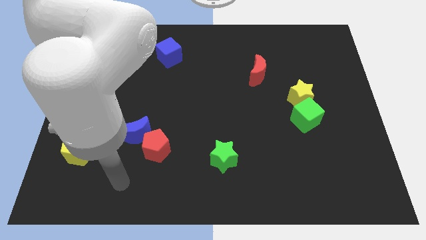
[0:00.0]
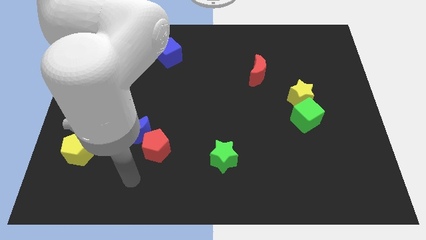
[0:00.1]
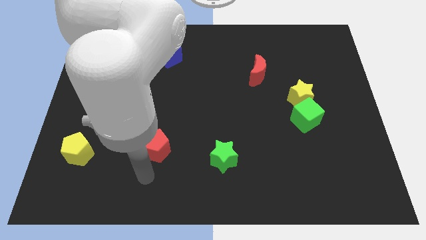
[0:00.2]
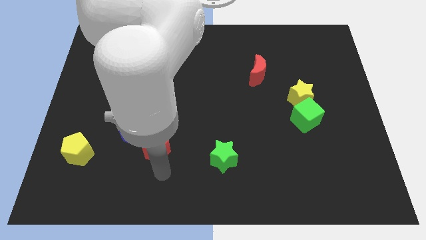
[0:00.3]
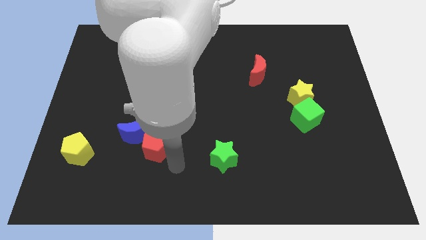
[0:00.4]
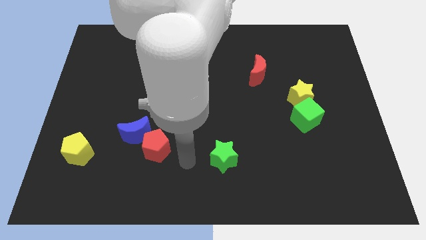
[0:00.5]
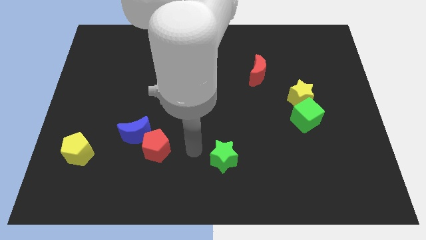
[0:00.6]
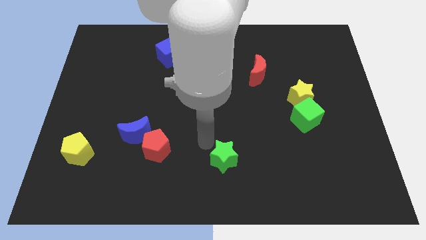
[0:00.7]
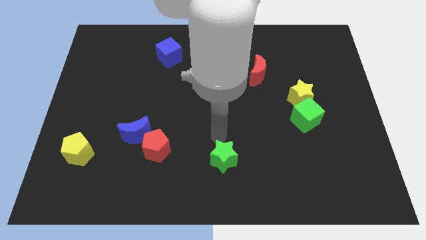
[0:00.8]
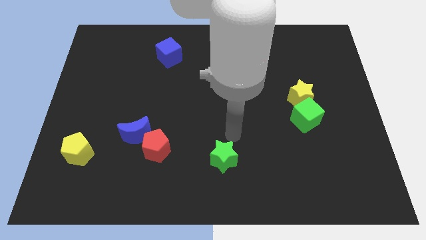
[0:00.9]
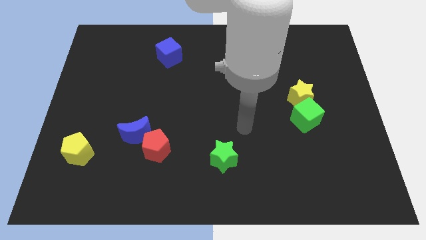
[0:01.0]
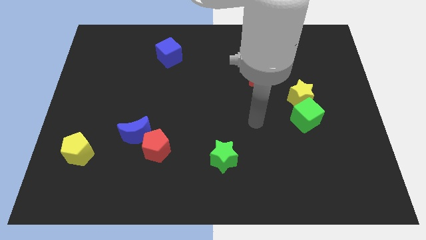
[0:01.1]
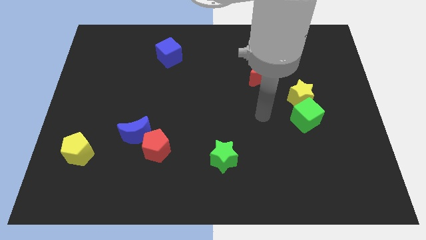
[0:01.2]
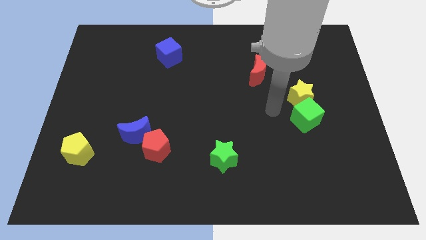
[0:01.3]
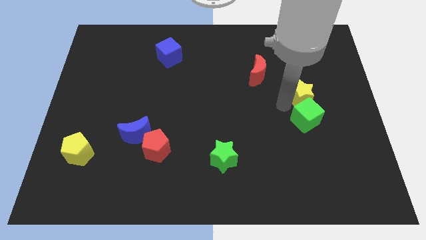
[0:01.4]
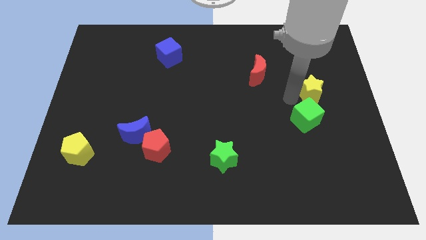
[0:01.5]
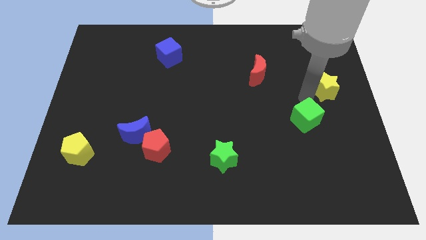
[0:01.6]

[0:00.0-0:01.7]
move the green cube away from the yellow star

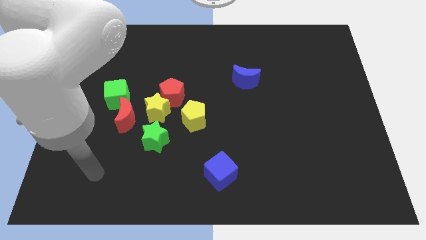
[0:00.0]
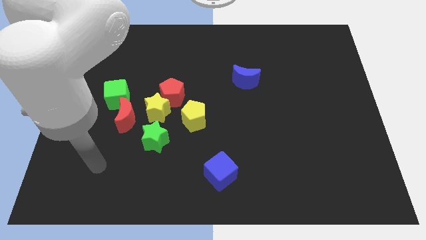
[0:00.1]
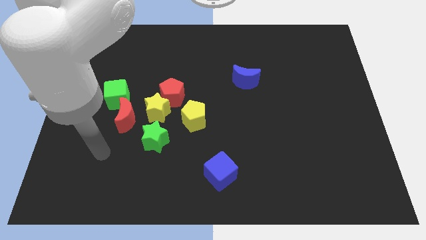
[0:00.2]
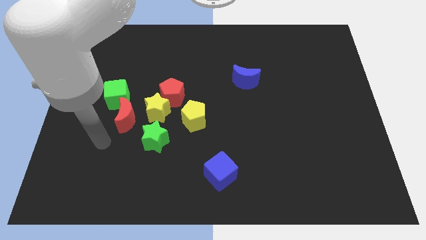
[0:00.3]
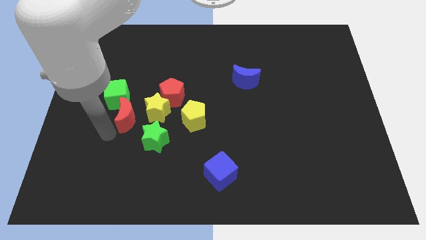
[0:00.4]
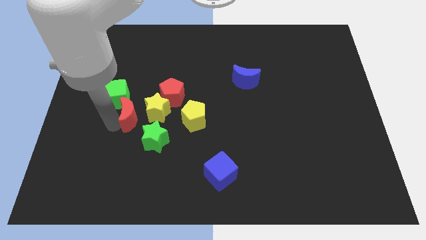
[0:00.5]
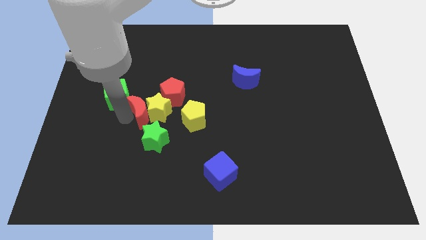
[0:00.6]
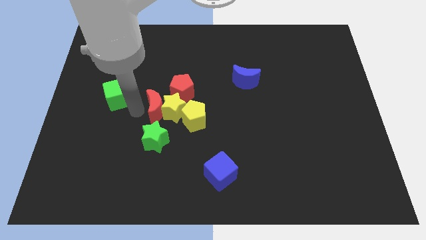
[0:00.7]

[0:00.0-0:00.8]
pull the green cube apart from the red moon

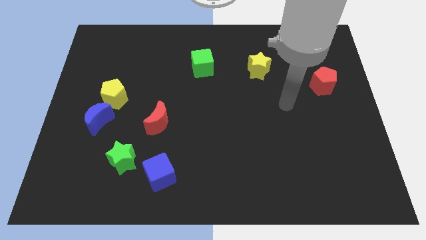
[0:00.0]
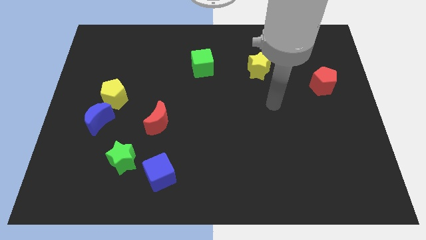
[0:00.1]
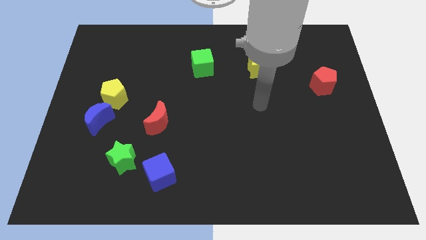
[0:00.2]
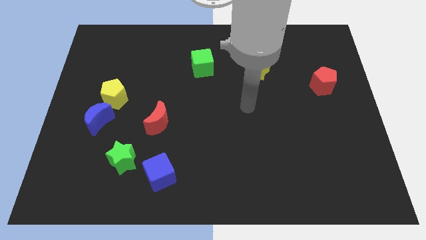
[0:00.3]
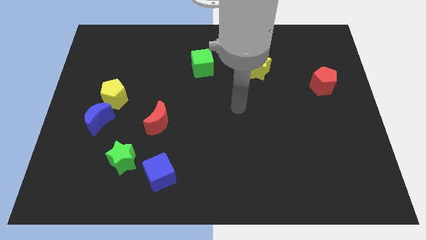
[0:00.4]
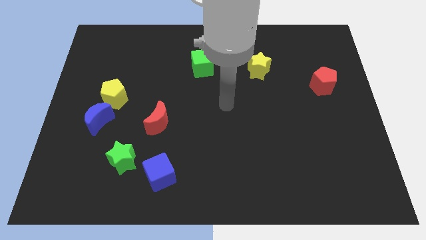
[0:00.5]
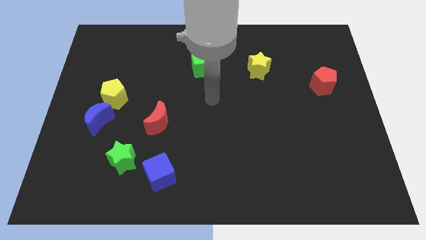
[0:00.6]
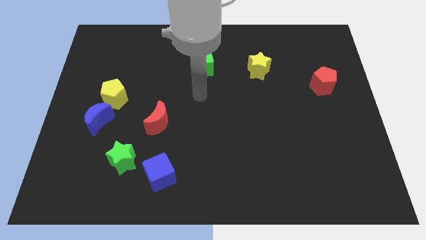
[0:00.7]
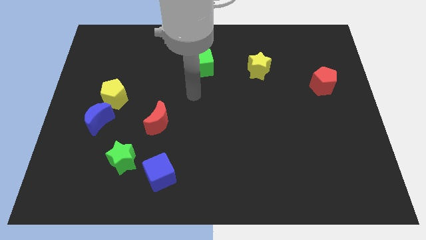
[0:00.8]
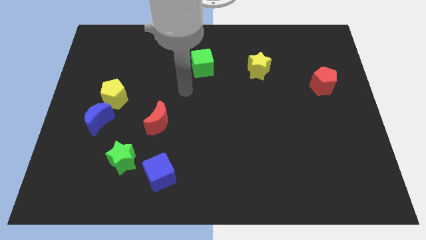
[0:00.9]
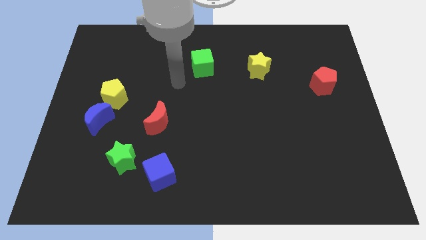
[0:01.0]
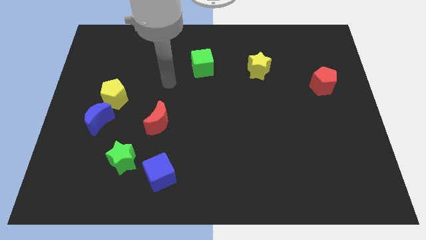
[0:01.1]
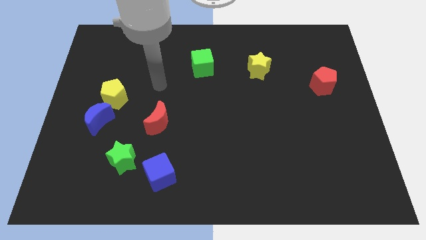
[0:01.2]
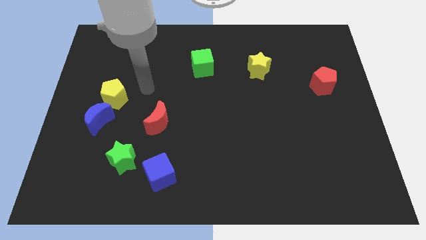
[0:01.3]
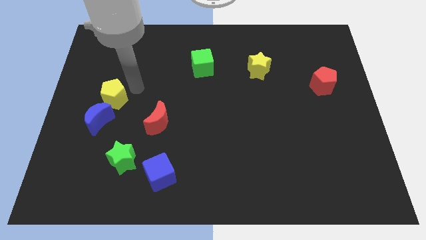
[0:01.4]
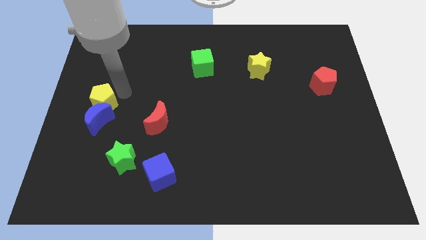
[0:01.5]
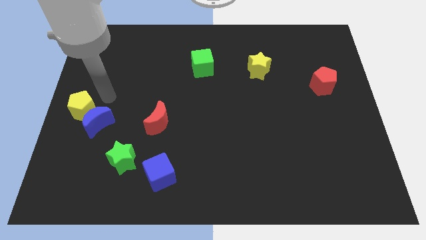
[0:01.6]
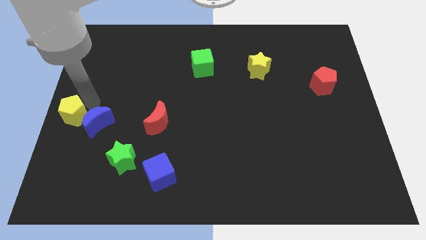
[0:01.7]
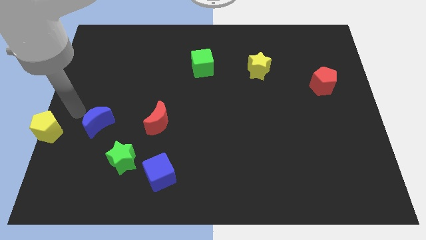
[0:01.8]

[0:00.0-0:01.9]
pull the blue moon apart from the yellow pentagon

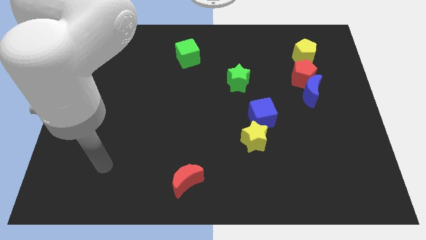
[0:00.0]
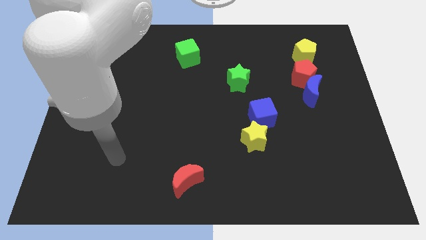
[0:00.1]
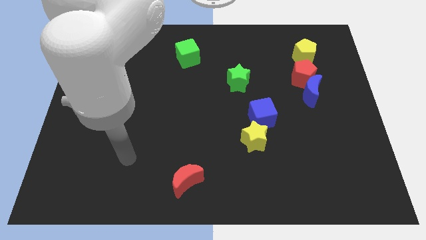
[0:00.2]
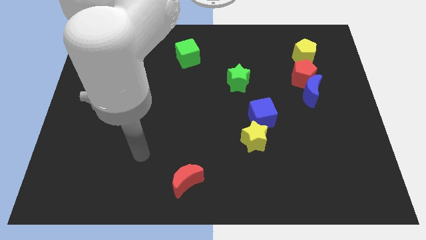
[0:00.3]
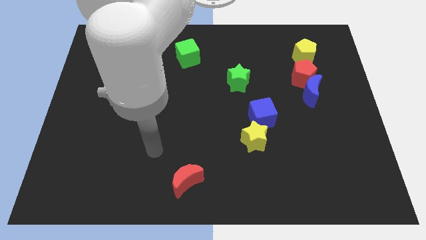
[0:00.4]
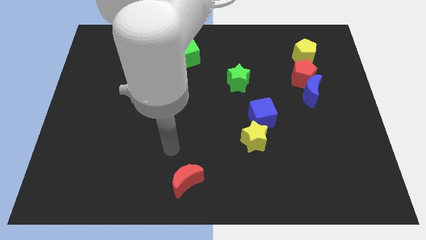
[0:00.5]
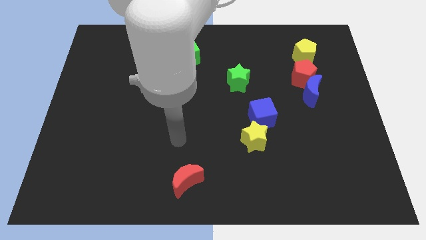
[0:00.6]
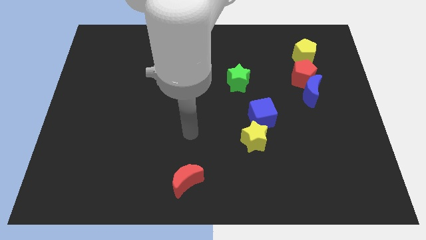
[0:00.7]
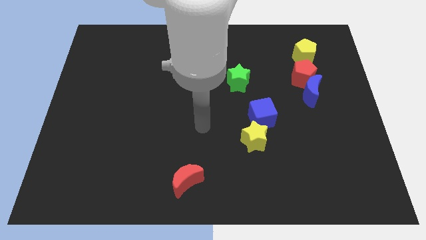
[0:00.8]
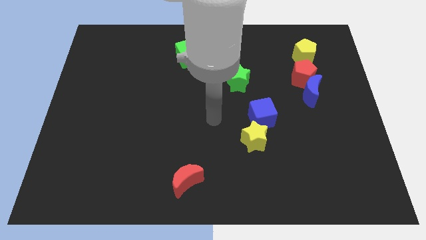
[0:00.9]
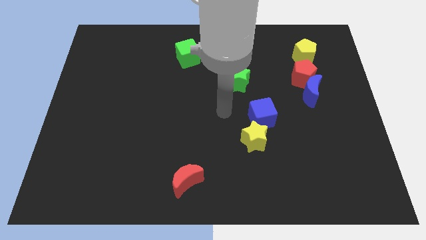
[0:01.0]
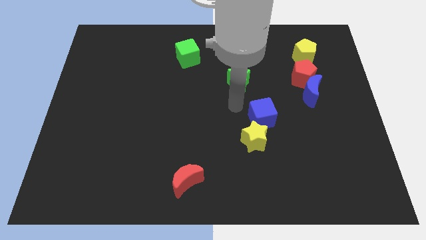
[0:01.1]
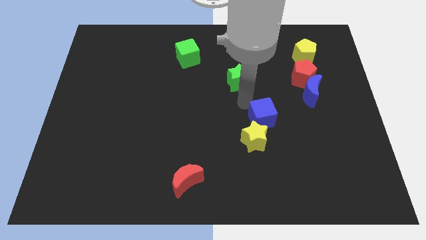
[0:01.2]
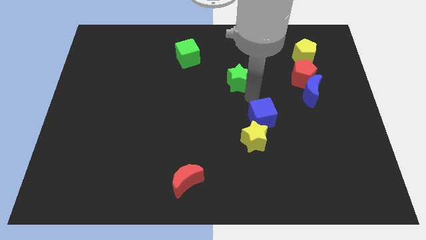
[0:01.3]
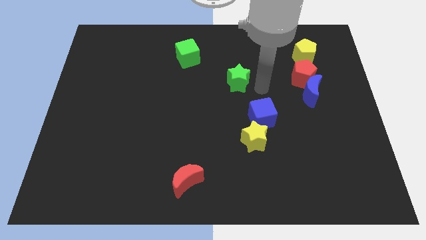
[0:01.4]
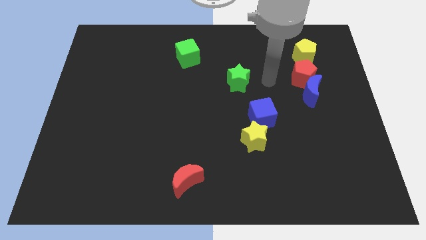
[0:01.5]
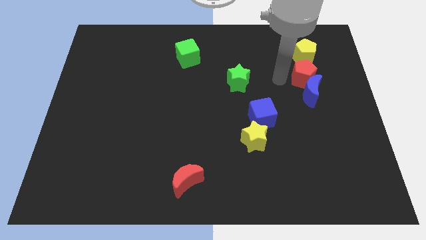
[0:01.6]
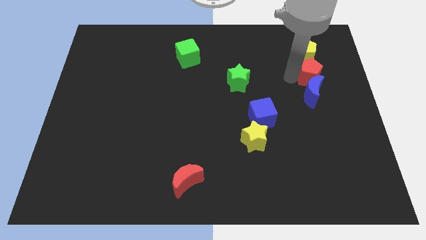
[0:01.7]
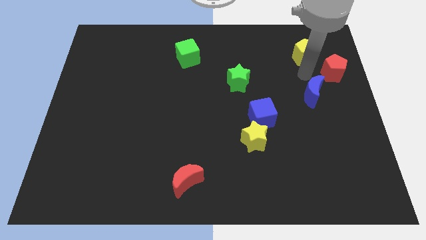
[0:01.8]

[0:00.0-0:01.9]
separate the blue moon from the red pentagon

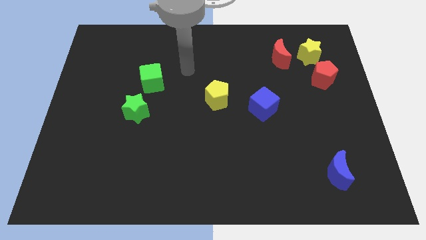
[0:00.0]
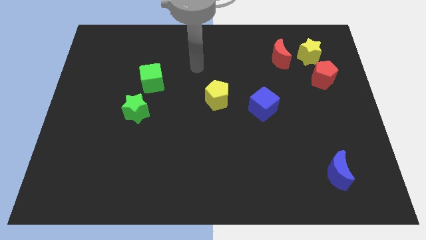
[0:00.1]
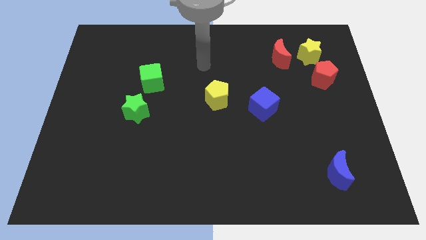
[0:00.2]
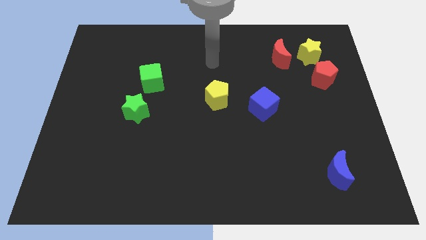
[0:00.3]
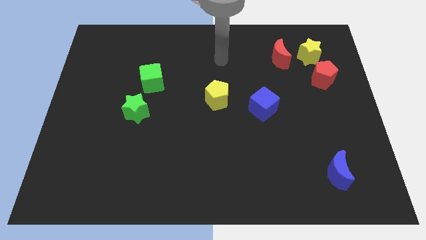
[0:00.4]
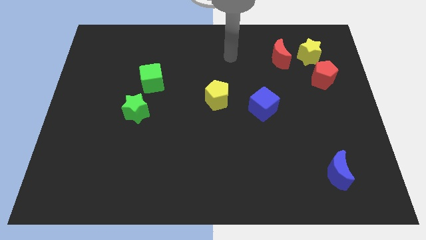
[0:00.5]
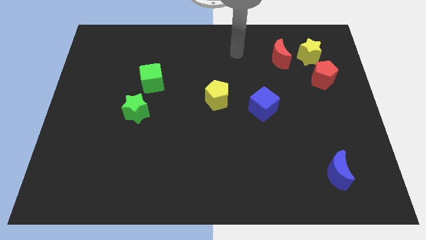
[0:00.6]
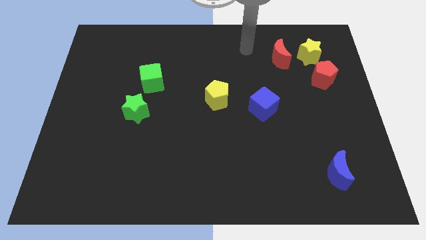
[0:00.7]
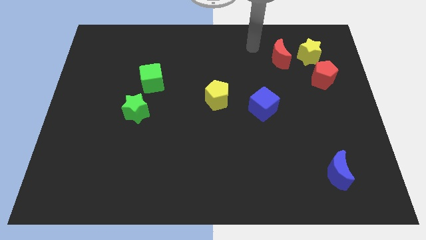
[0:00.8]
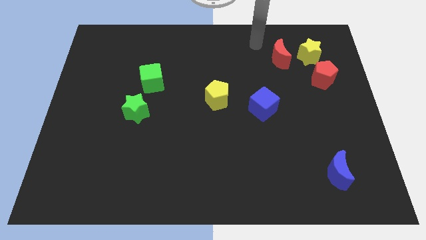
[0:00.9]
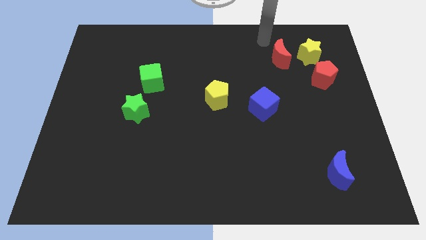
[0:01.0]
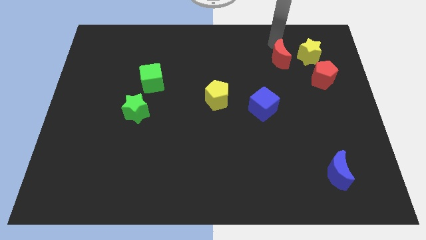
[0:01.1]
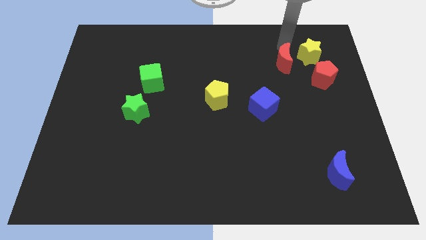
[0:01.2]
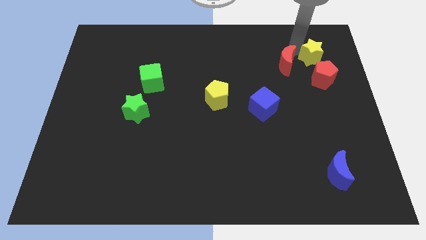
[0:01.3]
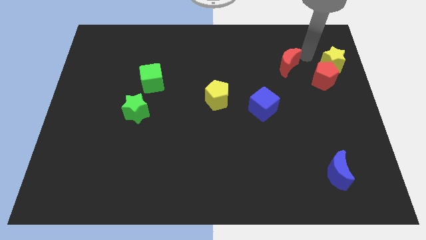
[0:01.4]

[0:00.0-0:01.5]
separate the red moon from the yellow star

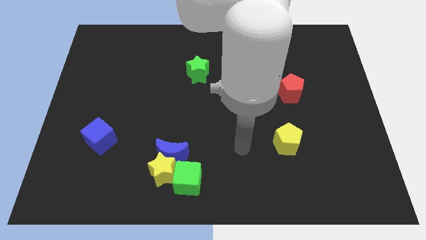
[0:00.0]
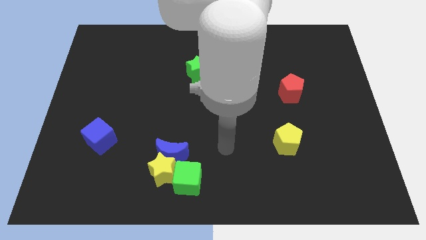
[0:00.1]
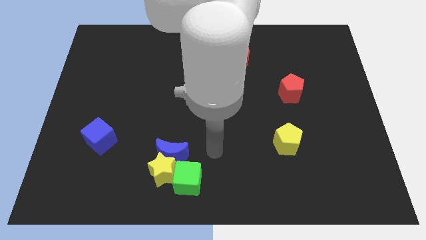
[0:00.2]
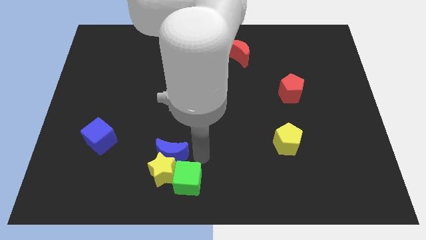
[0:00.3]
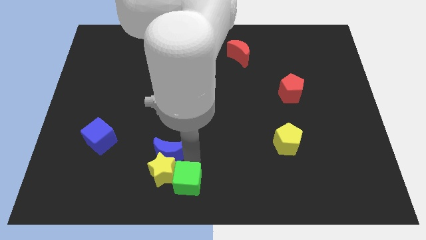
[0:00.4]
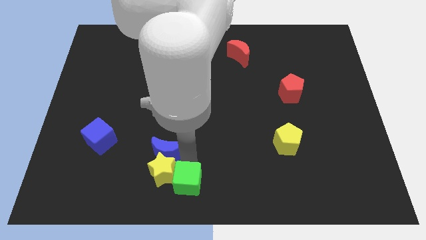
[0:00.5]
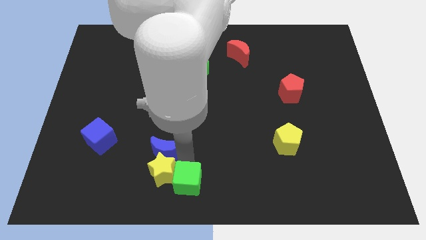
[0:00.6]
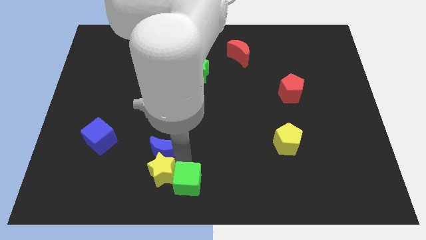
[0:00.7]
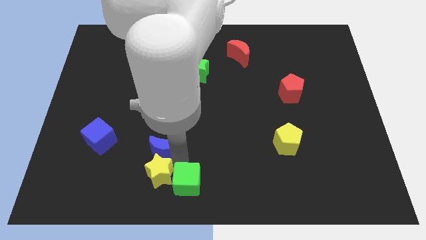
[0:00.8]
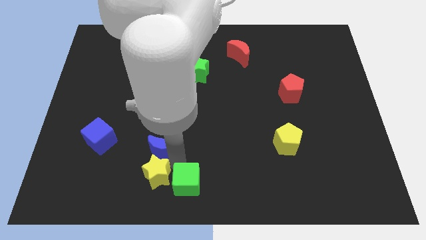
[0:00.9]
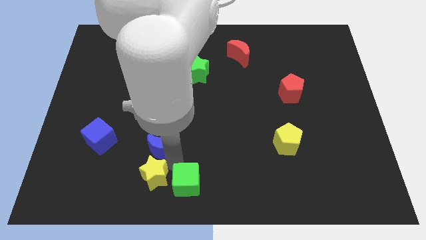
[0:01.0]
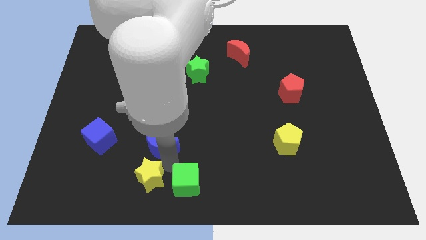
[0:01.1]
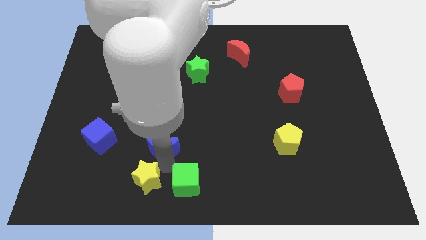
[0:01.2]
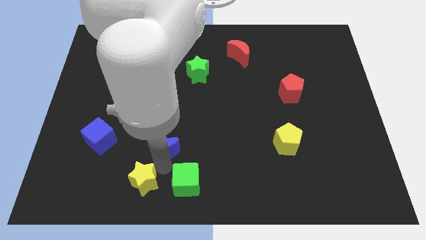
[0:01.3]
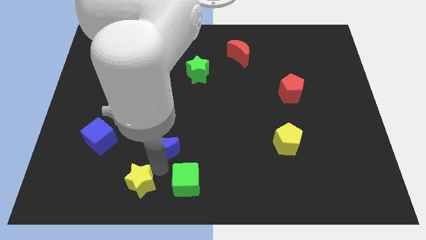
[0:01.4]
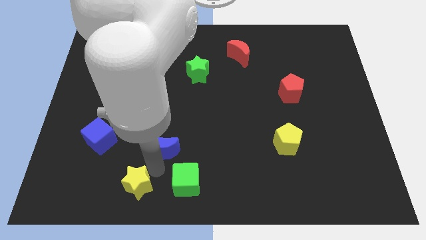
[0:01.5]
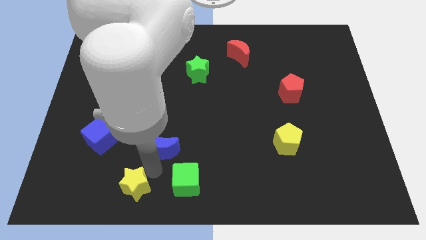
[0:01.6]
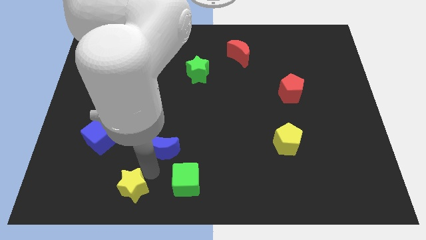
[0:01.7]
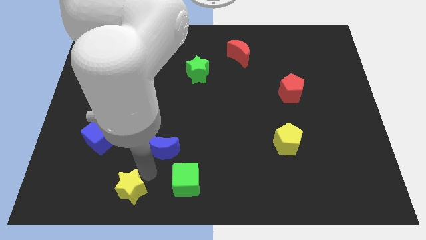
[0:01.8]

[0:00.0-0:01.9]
pull the yellow star apart from the blue moon and green cube
